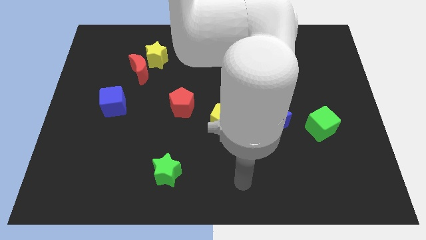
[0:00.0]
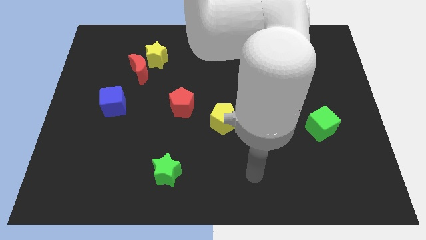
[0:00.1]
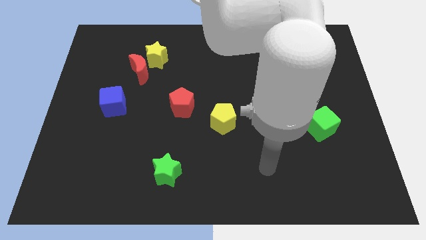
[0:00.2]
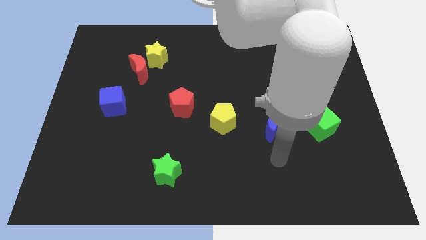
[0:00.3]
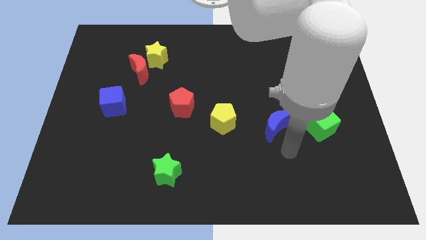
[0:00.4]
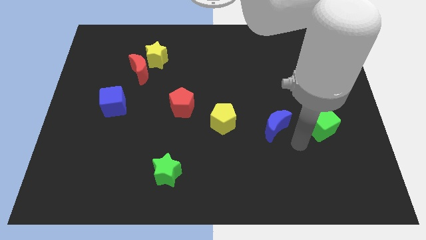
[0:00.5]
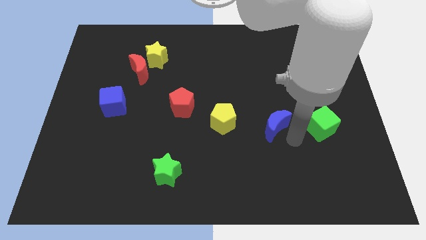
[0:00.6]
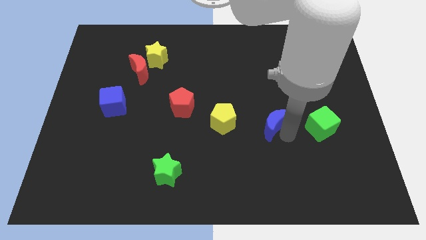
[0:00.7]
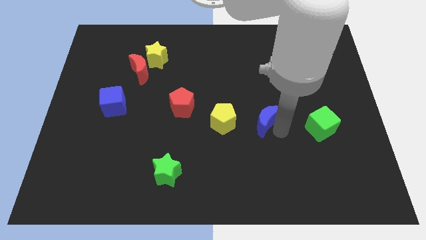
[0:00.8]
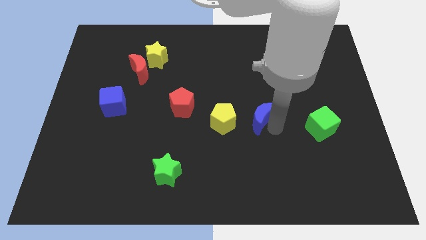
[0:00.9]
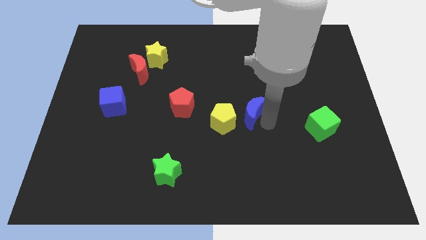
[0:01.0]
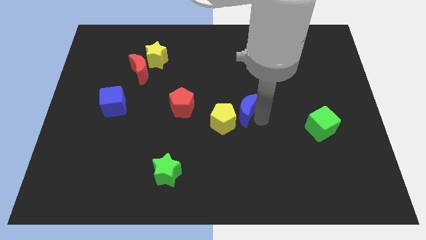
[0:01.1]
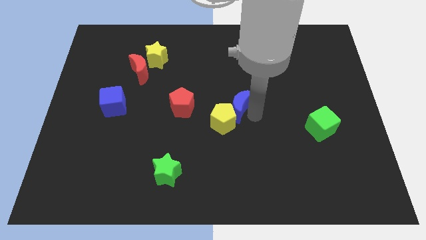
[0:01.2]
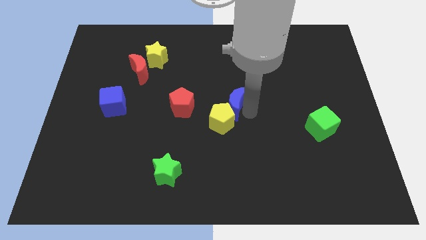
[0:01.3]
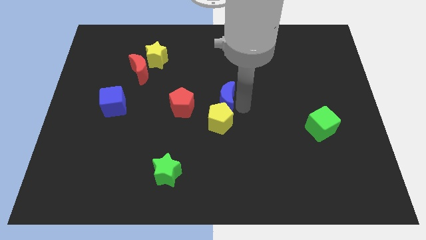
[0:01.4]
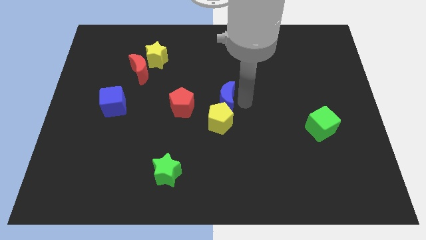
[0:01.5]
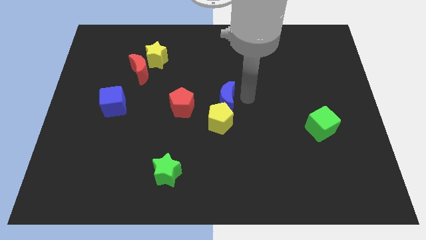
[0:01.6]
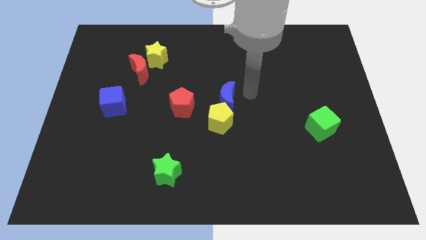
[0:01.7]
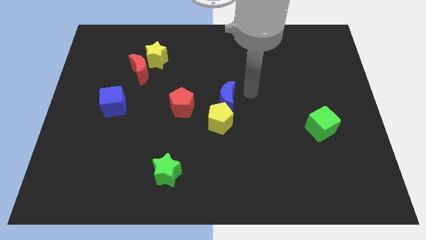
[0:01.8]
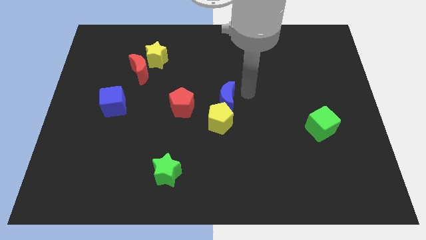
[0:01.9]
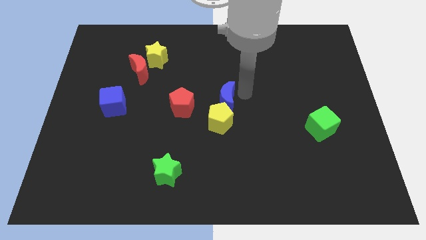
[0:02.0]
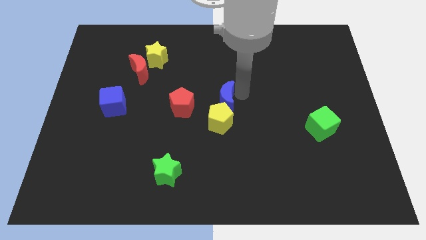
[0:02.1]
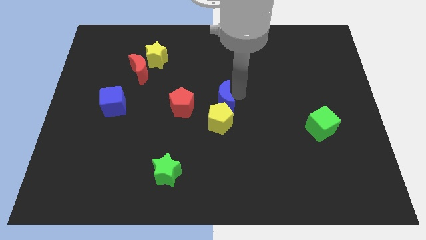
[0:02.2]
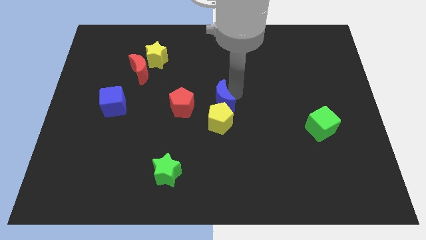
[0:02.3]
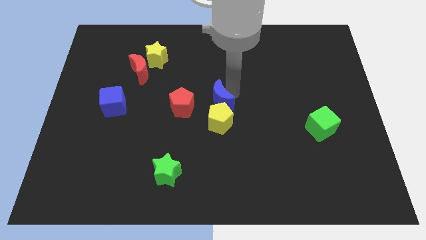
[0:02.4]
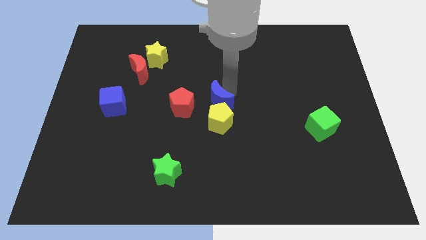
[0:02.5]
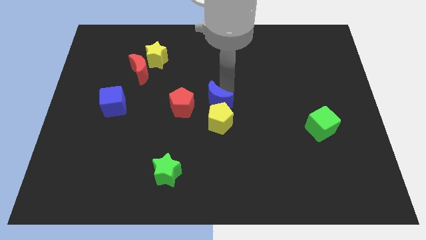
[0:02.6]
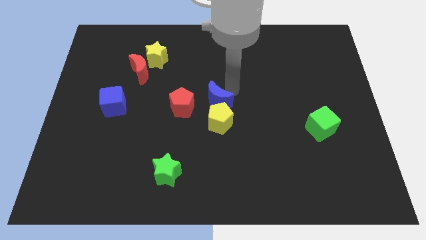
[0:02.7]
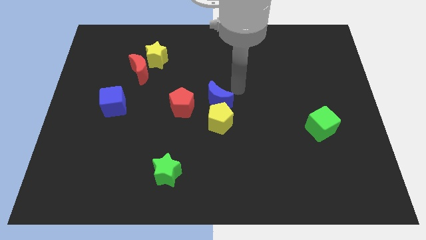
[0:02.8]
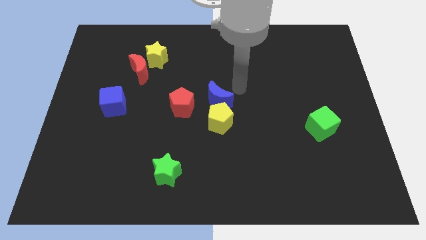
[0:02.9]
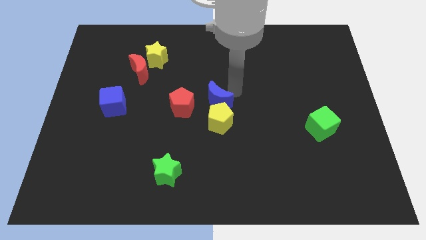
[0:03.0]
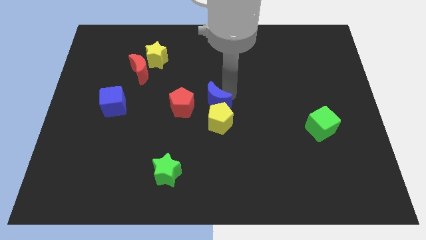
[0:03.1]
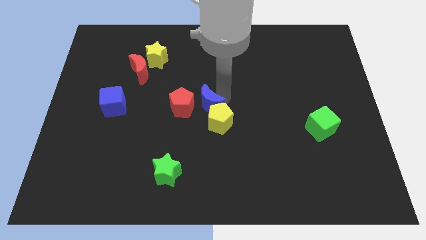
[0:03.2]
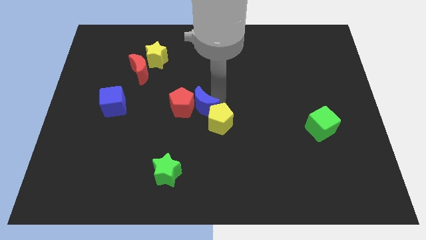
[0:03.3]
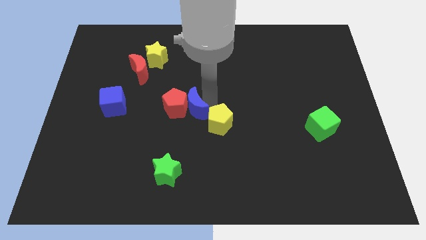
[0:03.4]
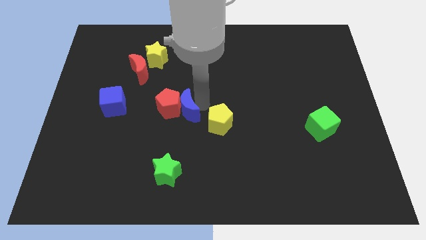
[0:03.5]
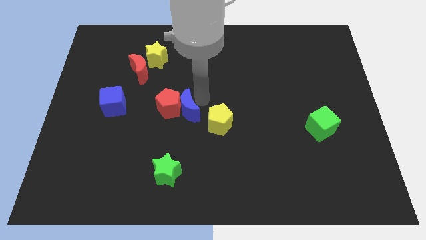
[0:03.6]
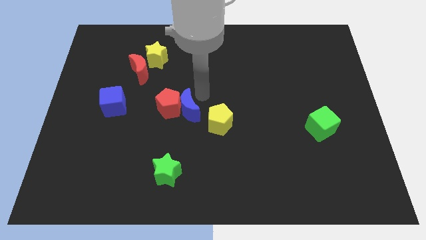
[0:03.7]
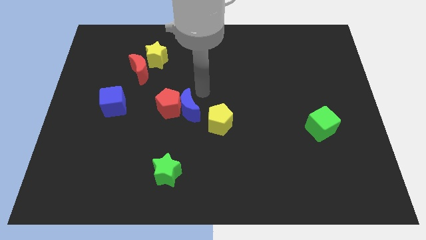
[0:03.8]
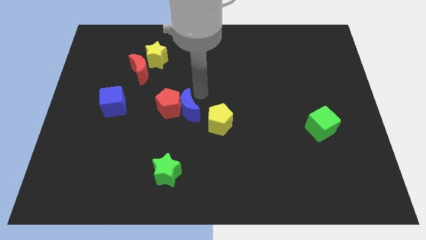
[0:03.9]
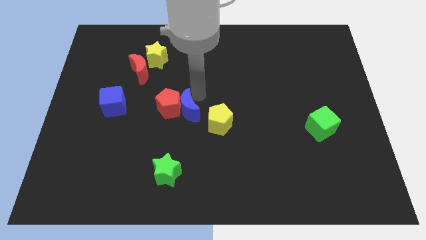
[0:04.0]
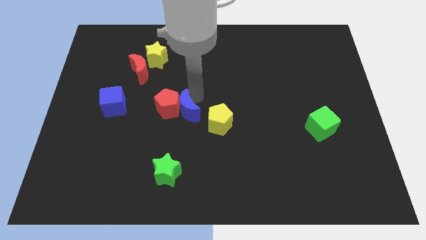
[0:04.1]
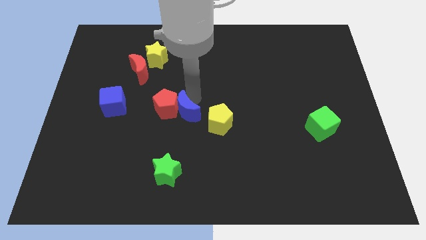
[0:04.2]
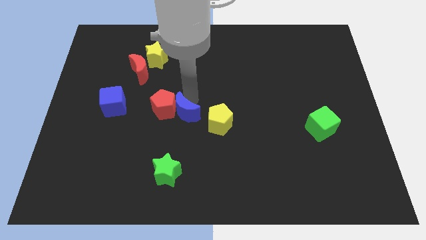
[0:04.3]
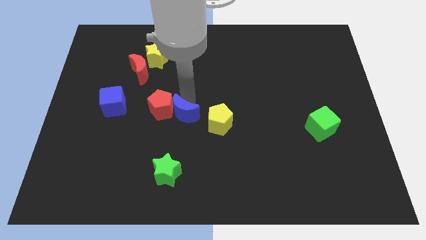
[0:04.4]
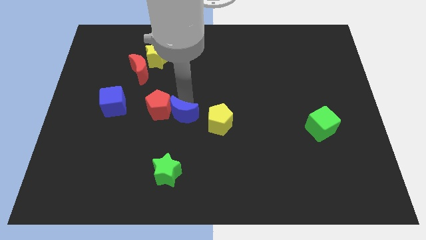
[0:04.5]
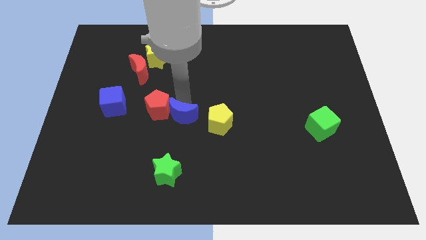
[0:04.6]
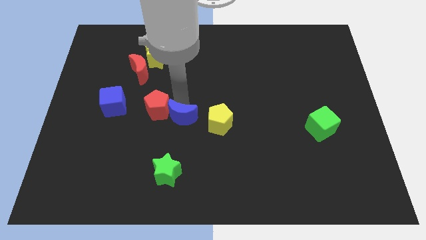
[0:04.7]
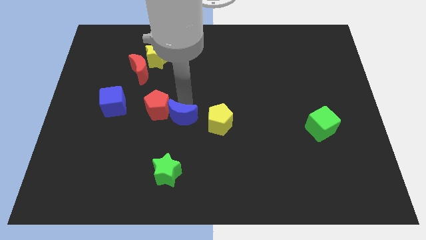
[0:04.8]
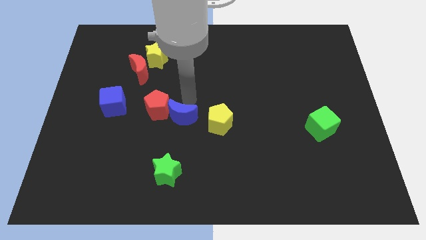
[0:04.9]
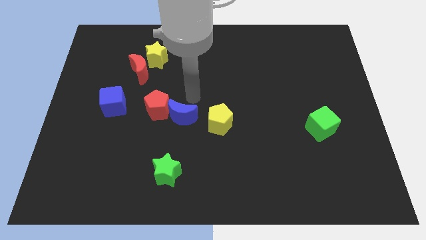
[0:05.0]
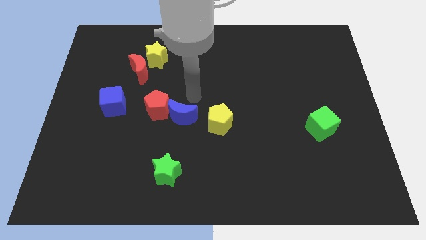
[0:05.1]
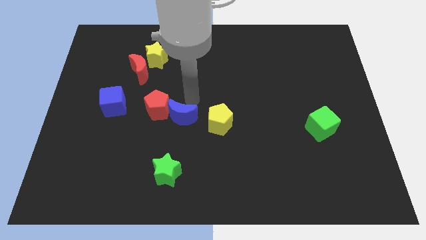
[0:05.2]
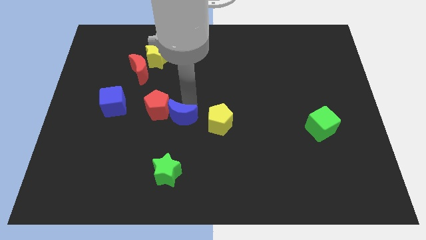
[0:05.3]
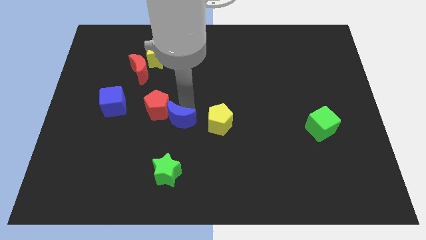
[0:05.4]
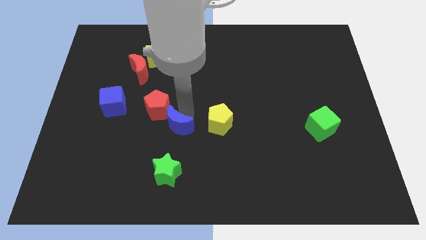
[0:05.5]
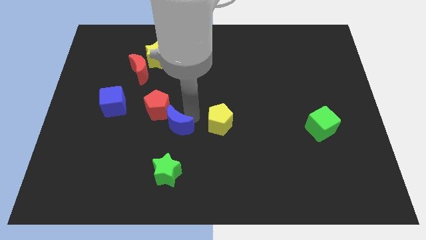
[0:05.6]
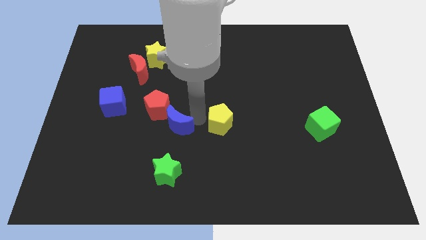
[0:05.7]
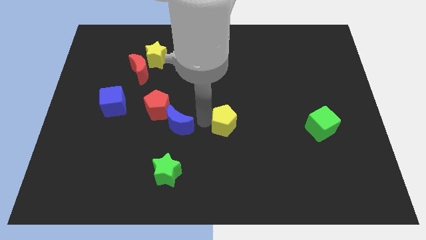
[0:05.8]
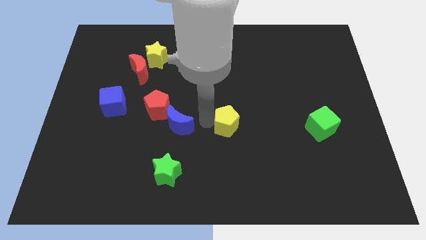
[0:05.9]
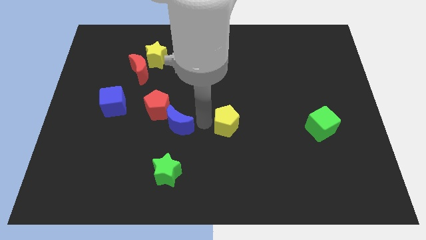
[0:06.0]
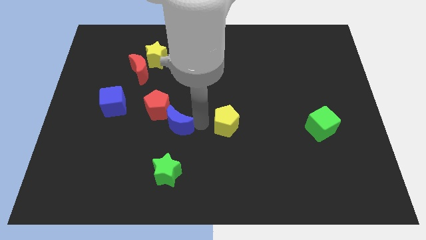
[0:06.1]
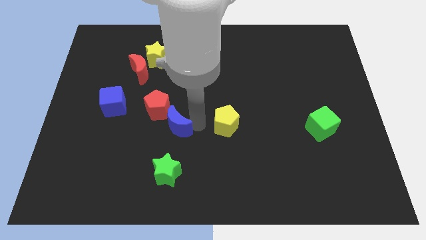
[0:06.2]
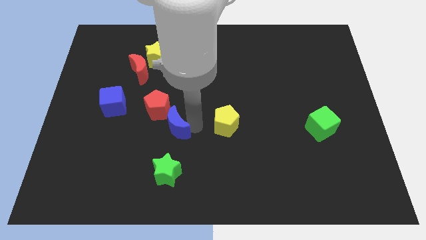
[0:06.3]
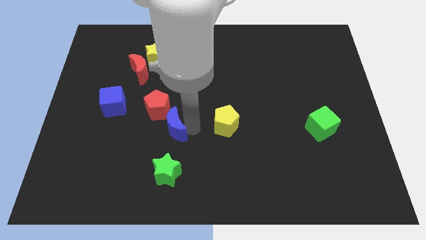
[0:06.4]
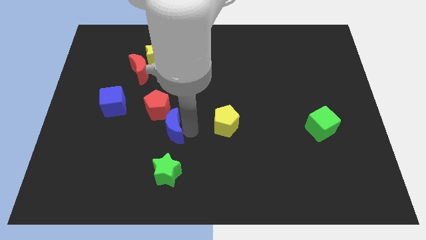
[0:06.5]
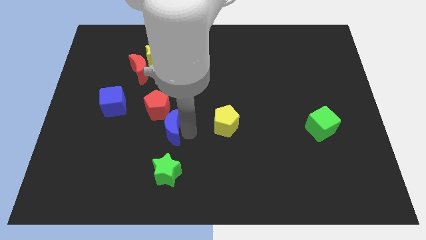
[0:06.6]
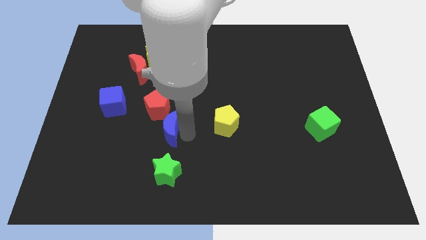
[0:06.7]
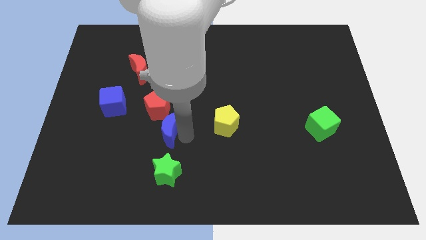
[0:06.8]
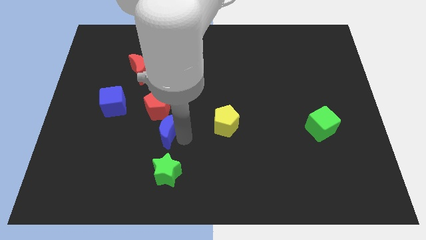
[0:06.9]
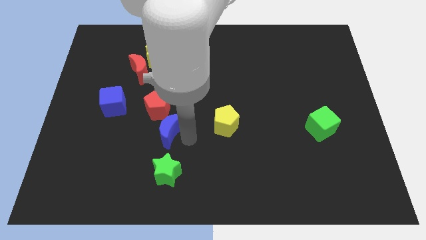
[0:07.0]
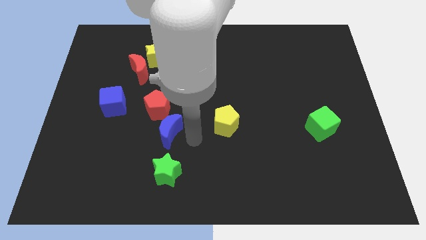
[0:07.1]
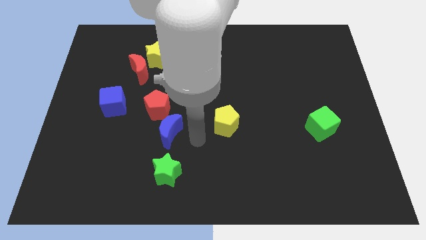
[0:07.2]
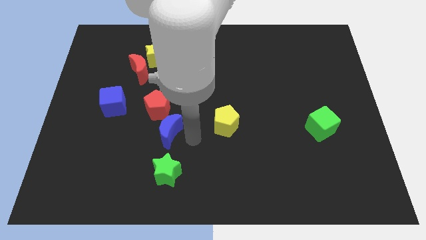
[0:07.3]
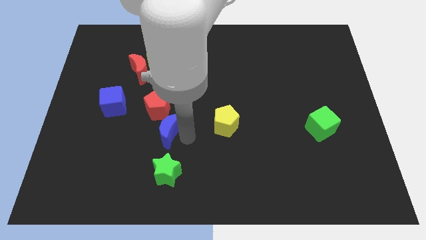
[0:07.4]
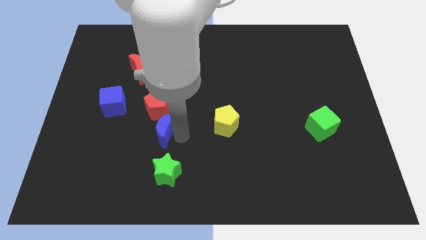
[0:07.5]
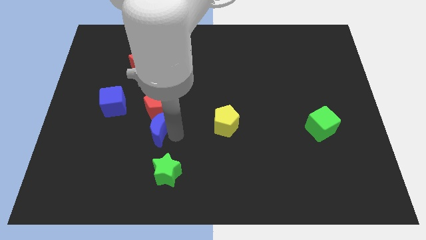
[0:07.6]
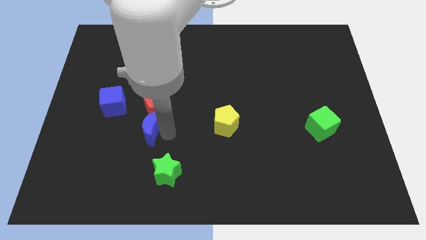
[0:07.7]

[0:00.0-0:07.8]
slide the blue moon diagonally down and to the right of the blue cube
